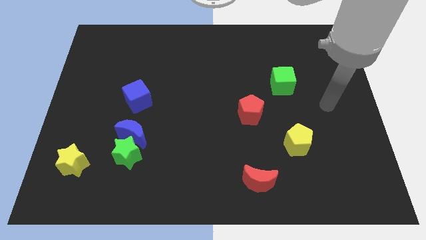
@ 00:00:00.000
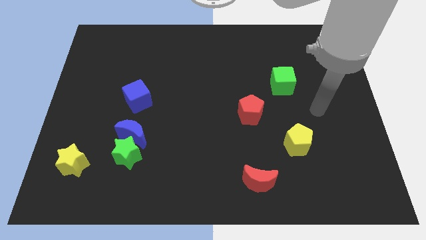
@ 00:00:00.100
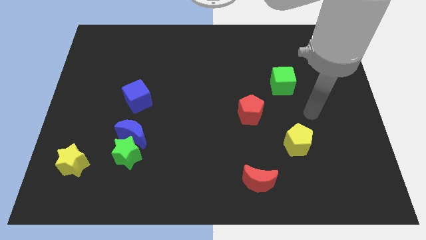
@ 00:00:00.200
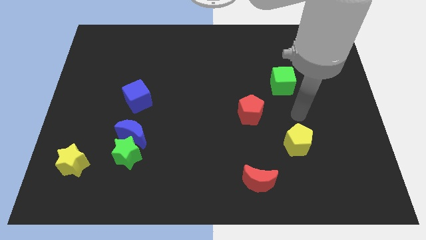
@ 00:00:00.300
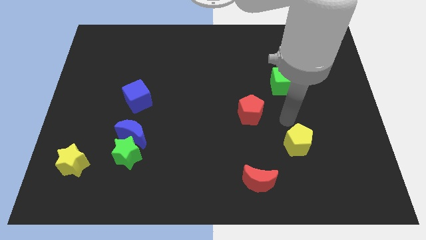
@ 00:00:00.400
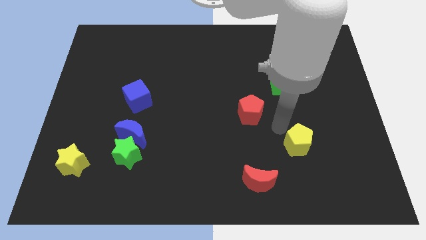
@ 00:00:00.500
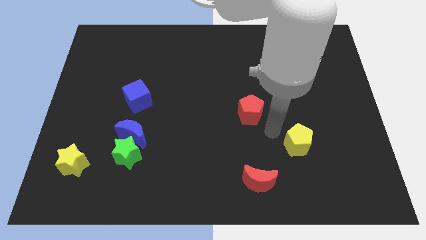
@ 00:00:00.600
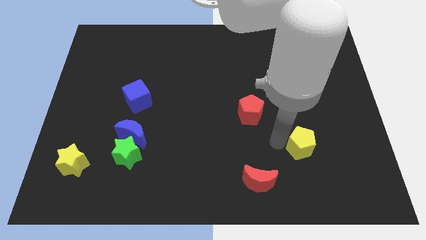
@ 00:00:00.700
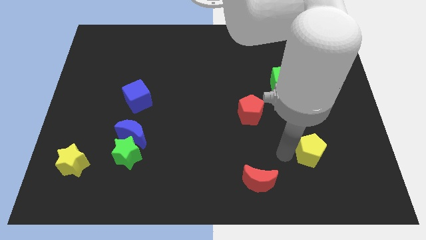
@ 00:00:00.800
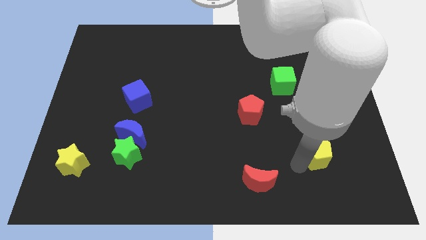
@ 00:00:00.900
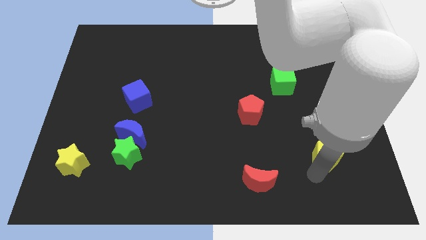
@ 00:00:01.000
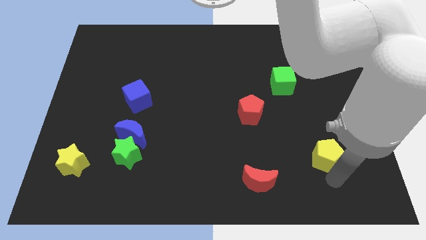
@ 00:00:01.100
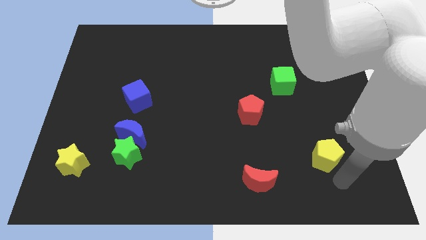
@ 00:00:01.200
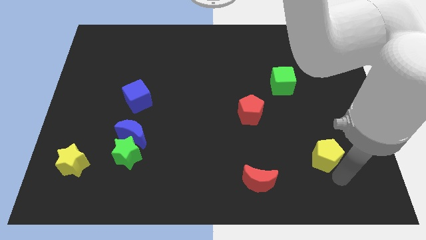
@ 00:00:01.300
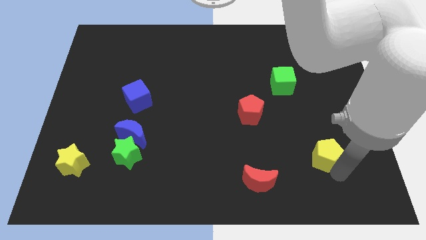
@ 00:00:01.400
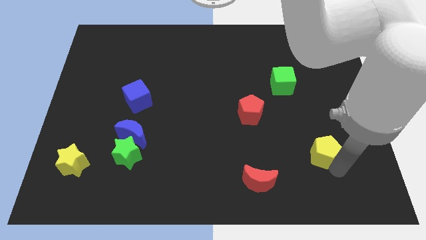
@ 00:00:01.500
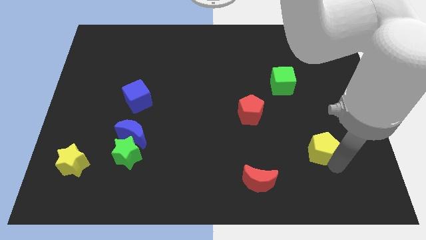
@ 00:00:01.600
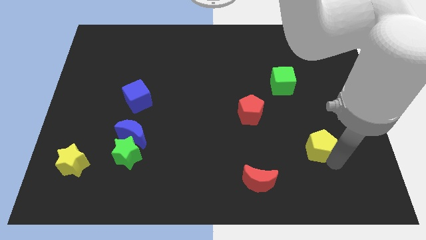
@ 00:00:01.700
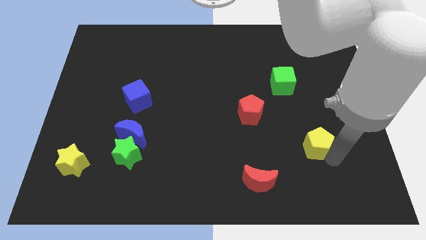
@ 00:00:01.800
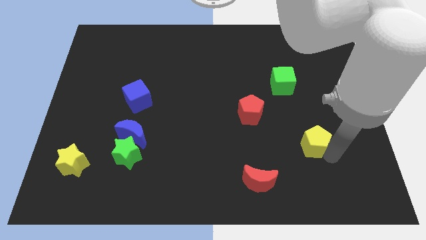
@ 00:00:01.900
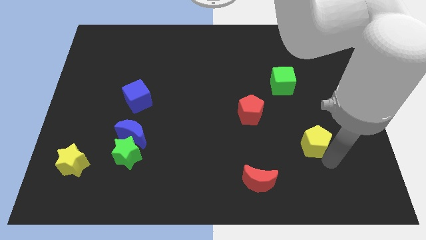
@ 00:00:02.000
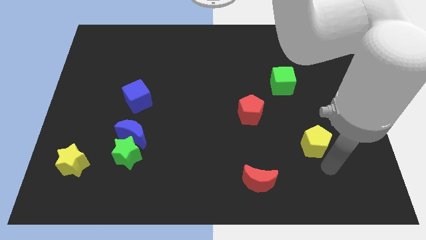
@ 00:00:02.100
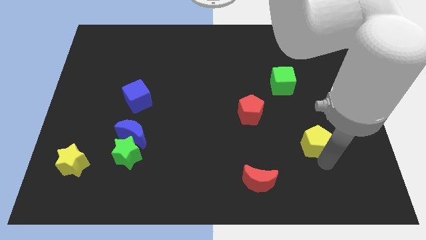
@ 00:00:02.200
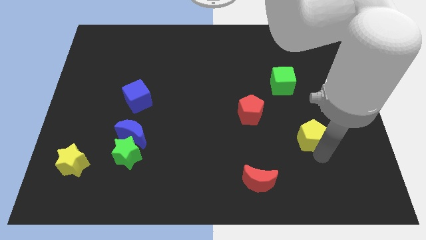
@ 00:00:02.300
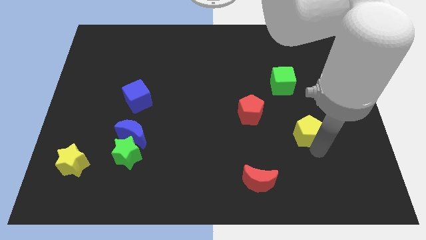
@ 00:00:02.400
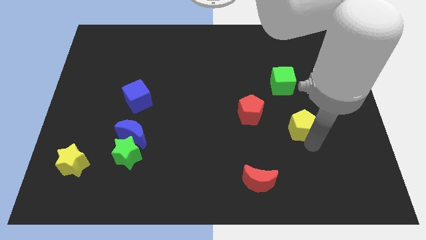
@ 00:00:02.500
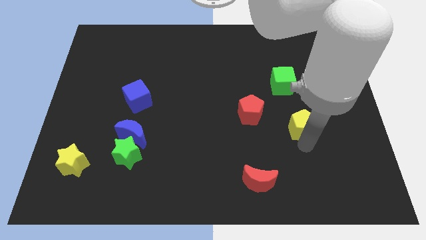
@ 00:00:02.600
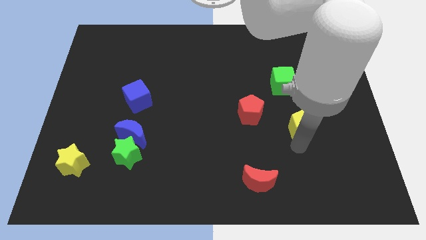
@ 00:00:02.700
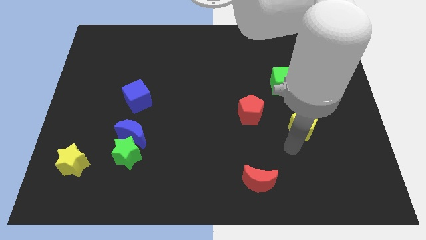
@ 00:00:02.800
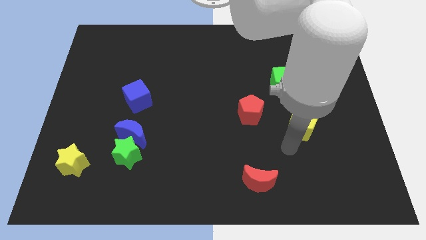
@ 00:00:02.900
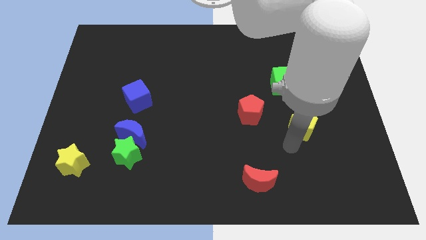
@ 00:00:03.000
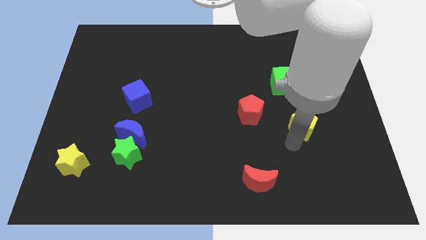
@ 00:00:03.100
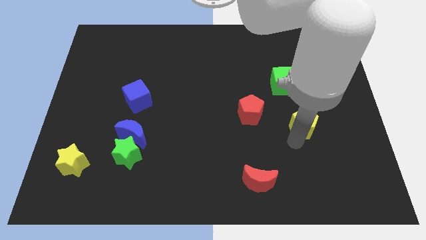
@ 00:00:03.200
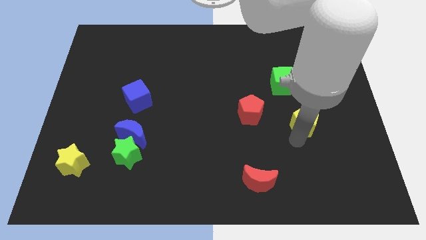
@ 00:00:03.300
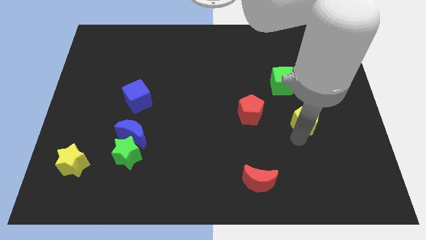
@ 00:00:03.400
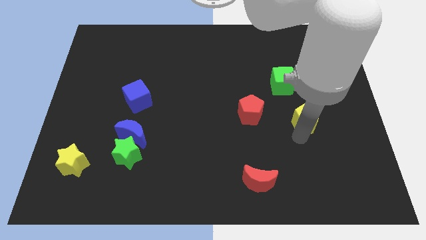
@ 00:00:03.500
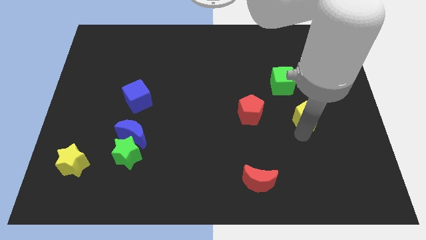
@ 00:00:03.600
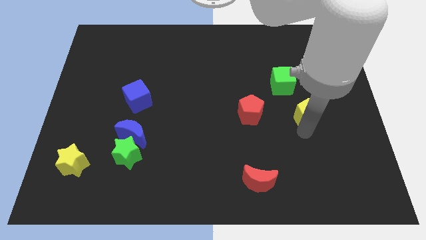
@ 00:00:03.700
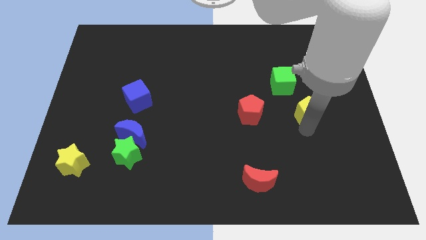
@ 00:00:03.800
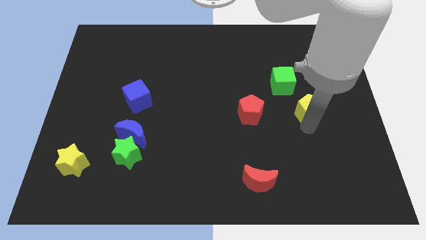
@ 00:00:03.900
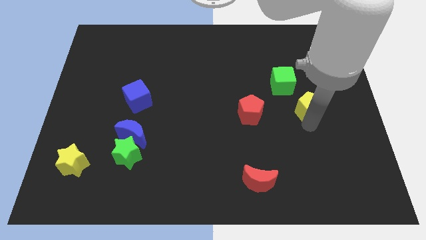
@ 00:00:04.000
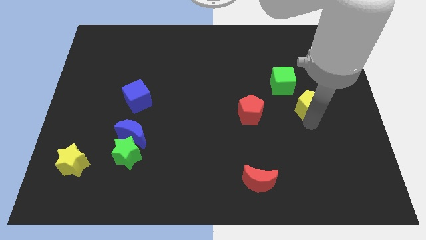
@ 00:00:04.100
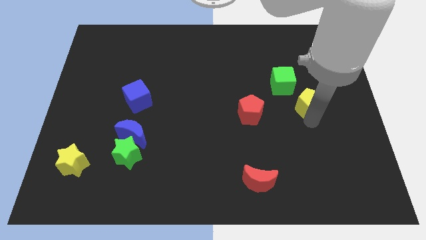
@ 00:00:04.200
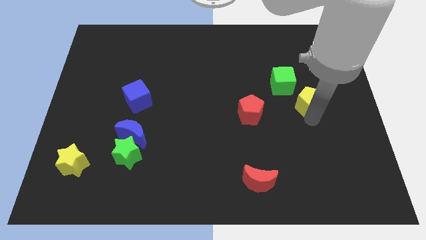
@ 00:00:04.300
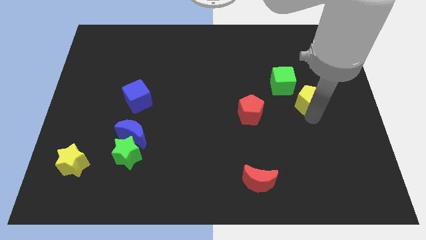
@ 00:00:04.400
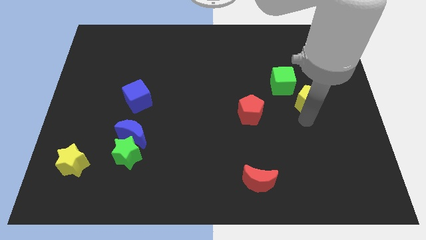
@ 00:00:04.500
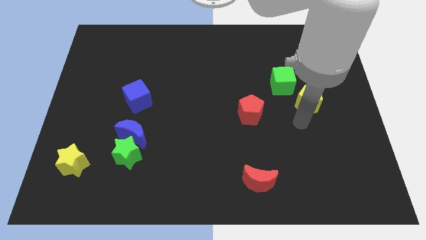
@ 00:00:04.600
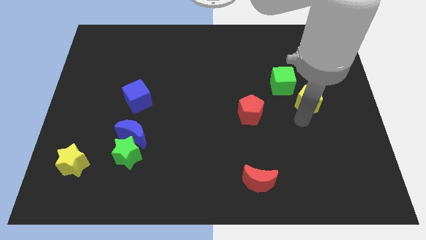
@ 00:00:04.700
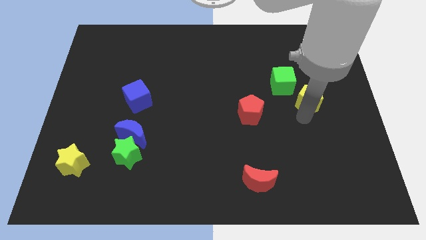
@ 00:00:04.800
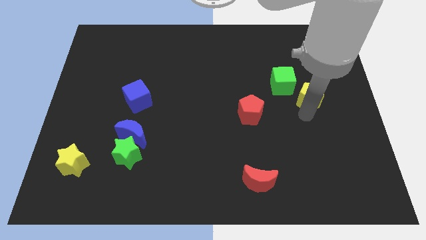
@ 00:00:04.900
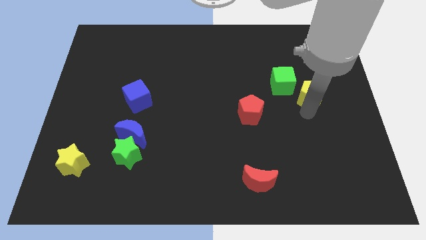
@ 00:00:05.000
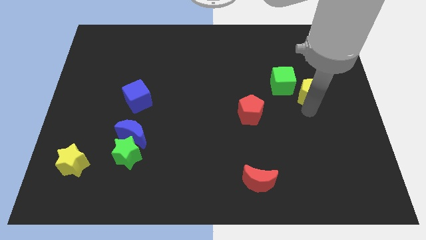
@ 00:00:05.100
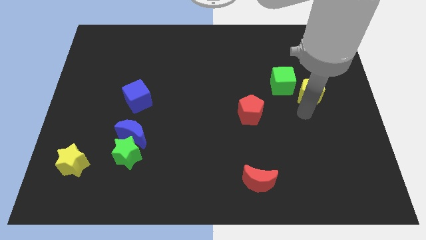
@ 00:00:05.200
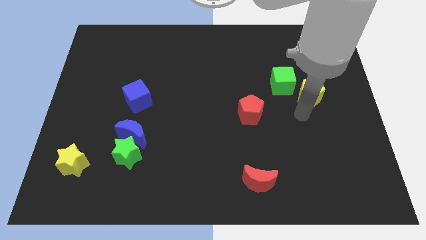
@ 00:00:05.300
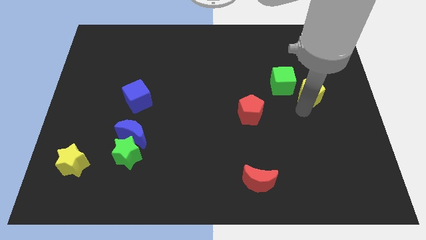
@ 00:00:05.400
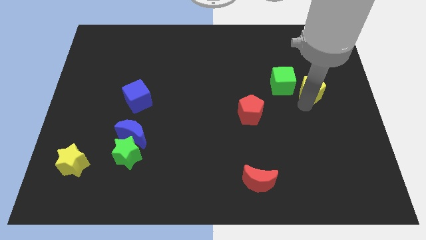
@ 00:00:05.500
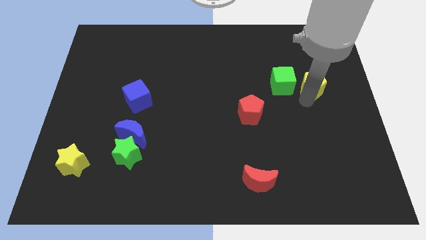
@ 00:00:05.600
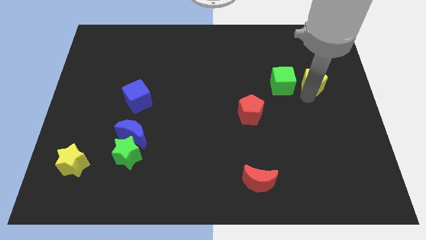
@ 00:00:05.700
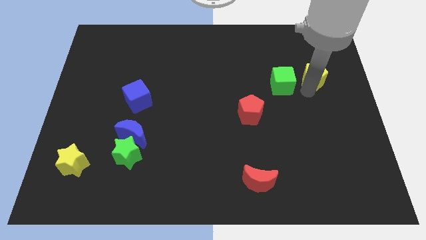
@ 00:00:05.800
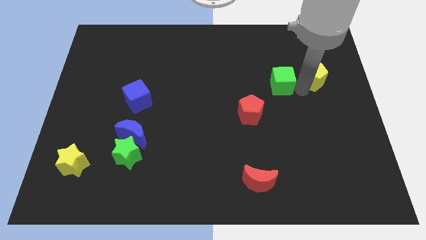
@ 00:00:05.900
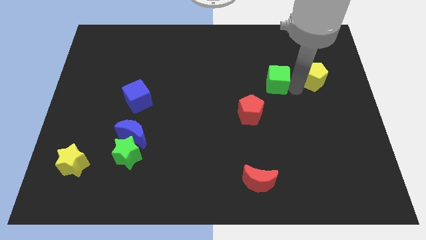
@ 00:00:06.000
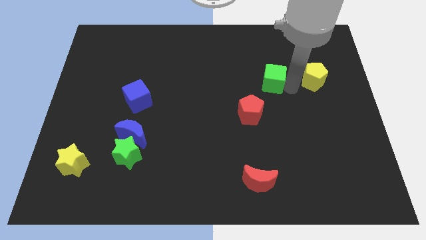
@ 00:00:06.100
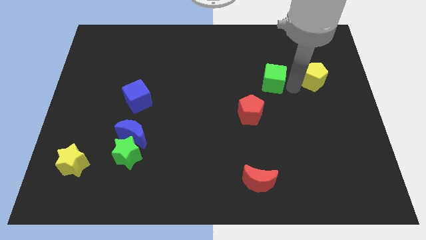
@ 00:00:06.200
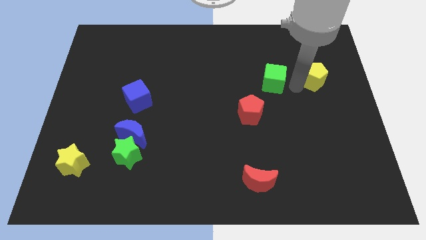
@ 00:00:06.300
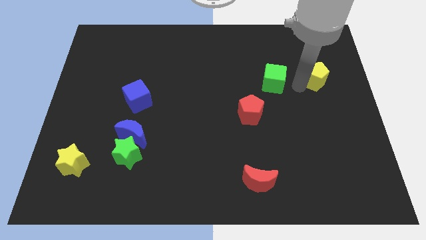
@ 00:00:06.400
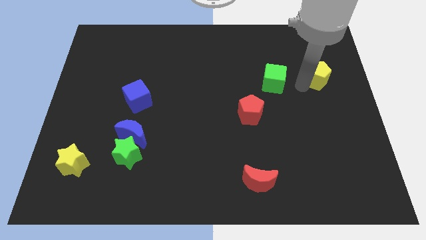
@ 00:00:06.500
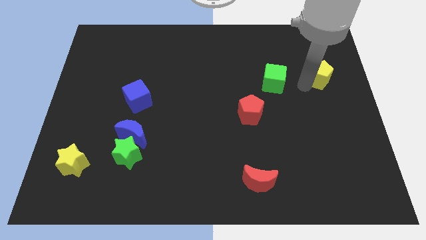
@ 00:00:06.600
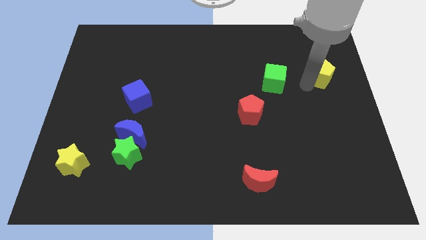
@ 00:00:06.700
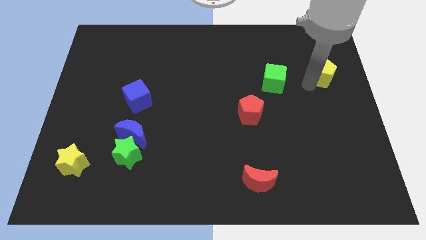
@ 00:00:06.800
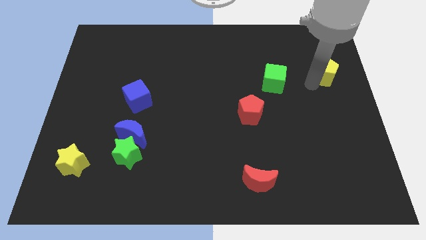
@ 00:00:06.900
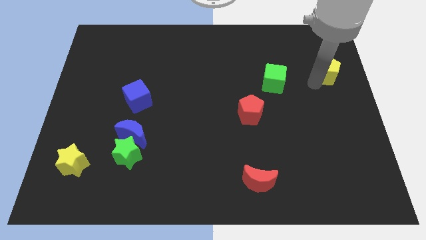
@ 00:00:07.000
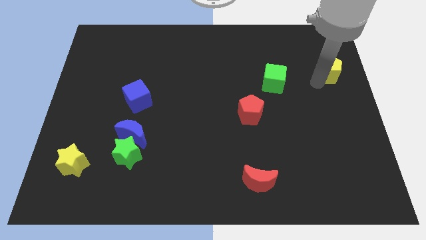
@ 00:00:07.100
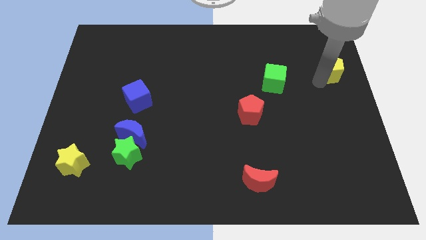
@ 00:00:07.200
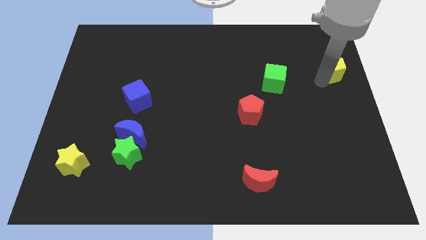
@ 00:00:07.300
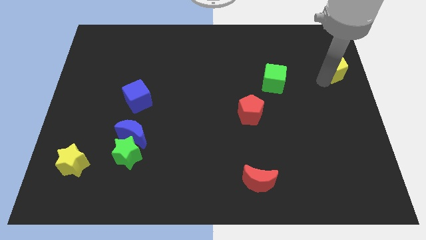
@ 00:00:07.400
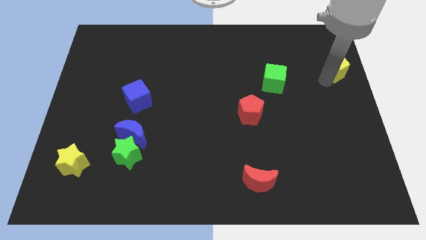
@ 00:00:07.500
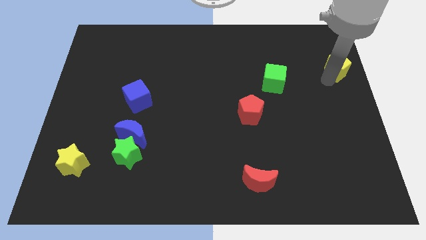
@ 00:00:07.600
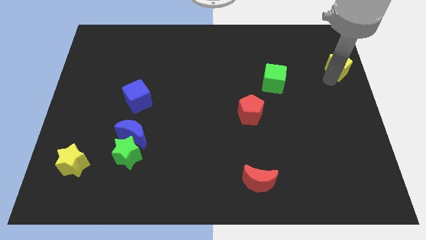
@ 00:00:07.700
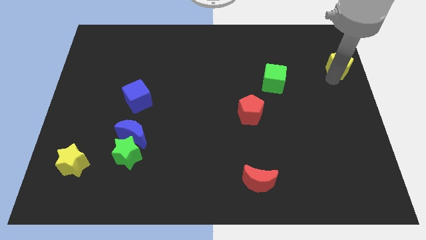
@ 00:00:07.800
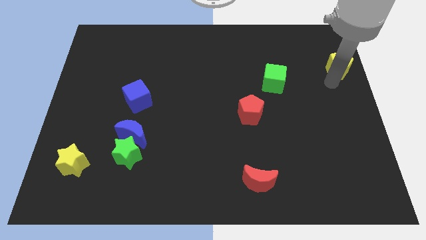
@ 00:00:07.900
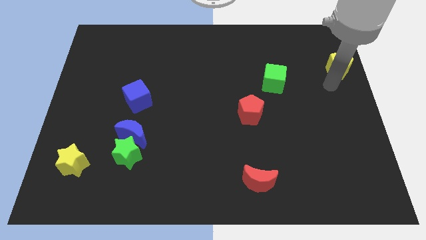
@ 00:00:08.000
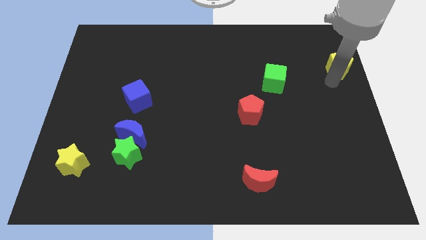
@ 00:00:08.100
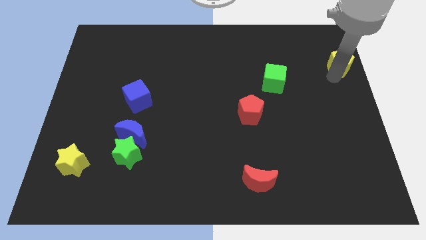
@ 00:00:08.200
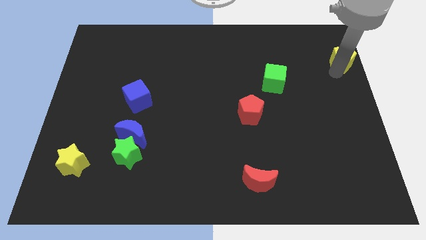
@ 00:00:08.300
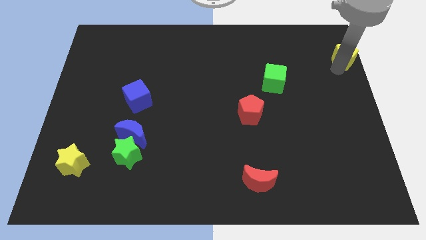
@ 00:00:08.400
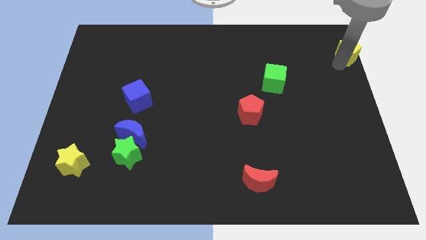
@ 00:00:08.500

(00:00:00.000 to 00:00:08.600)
slide the yellow pentagon to the top right
